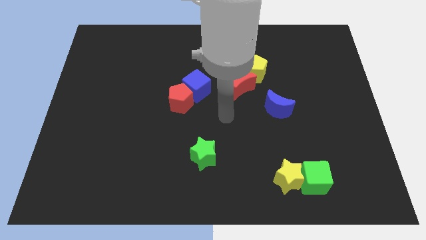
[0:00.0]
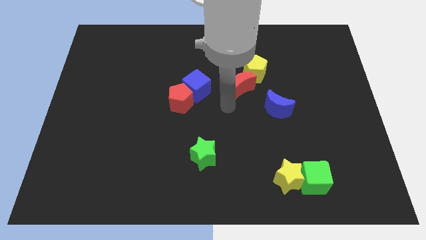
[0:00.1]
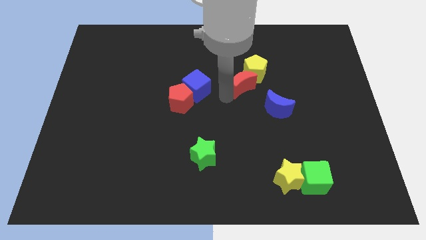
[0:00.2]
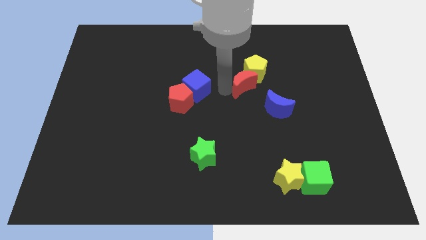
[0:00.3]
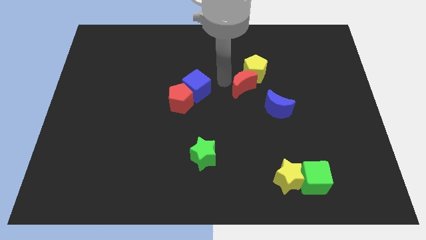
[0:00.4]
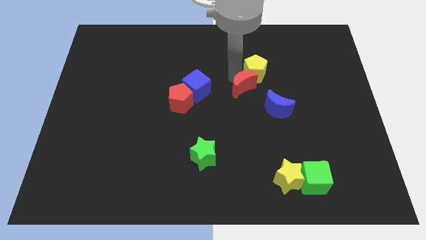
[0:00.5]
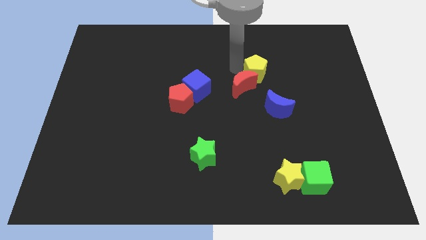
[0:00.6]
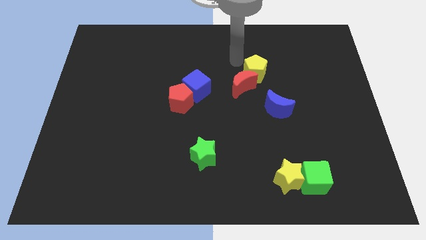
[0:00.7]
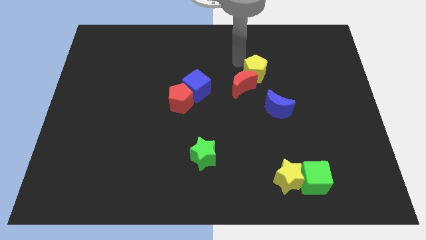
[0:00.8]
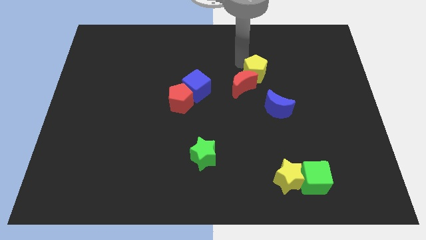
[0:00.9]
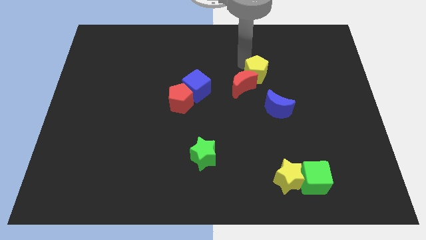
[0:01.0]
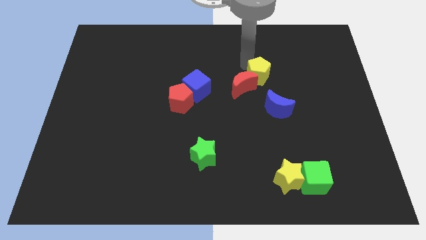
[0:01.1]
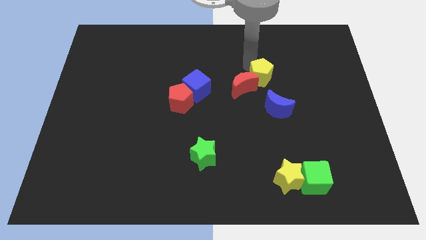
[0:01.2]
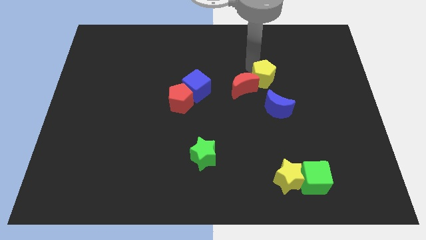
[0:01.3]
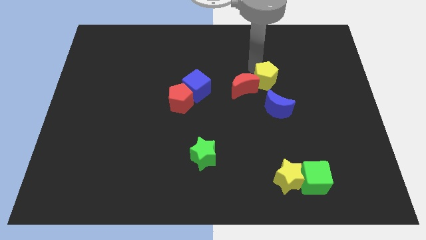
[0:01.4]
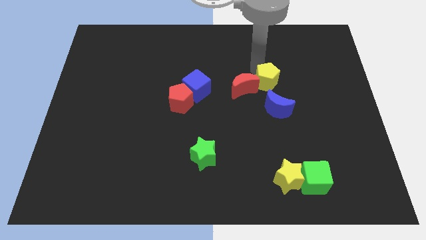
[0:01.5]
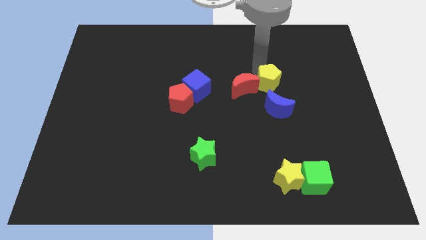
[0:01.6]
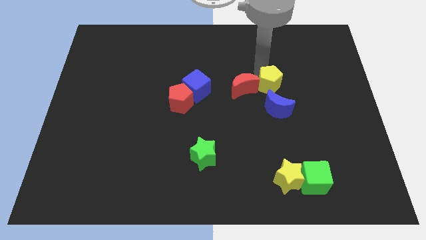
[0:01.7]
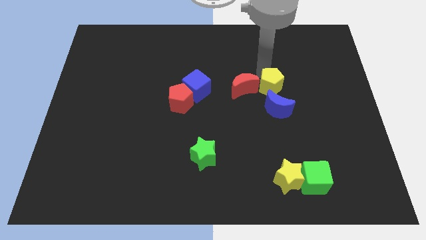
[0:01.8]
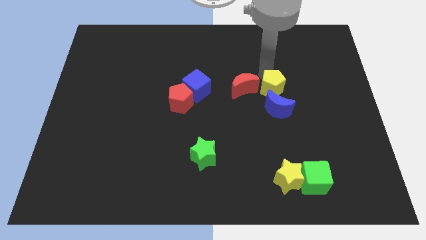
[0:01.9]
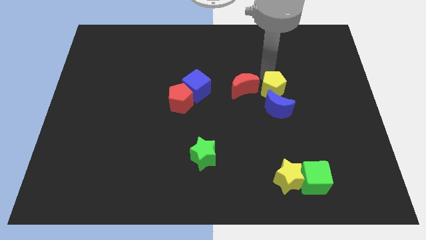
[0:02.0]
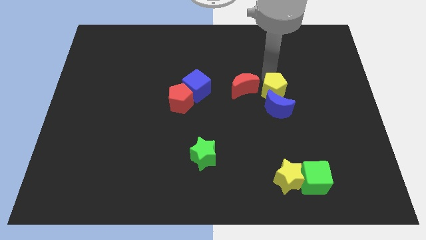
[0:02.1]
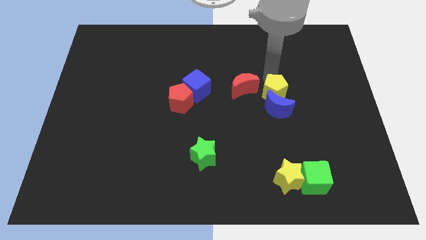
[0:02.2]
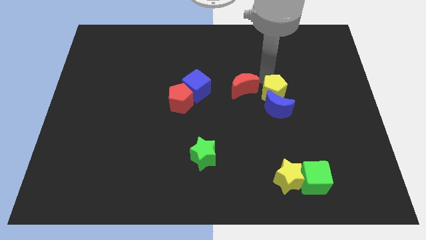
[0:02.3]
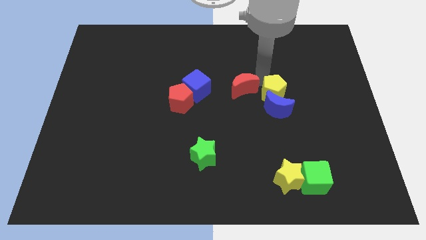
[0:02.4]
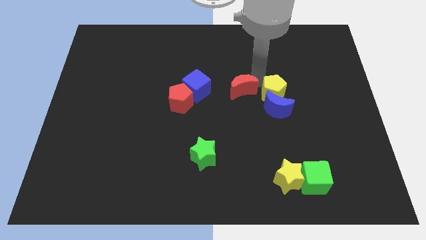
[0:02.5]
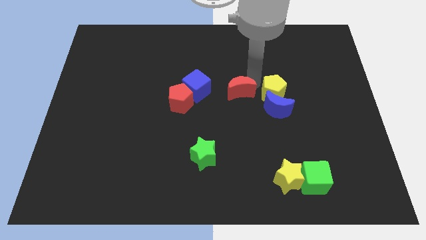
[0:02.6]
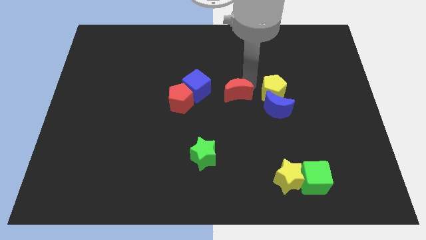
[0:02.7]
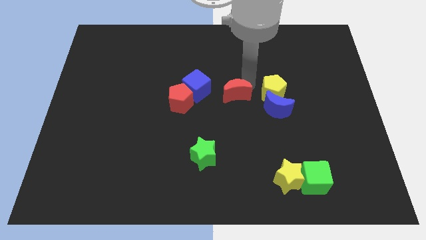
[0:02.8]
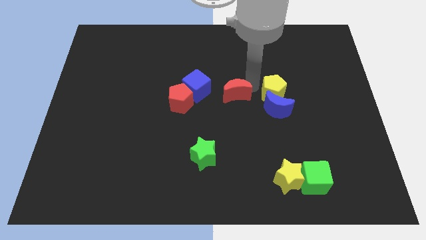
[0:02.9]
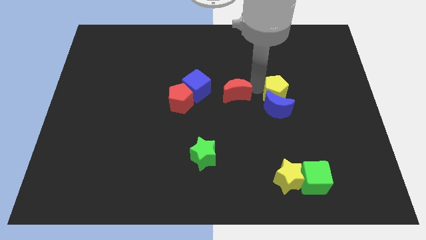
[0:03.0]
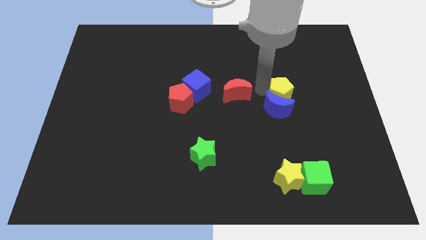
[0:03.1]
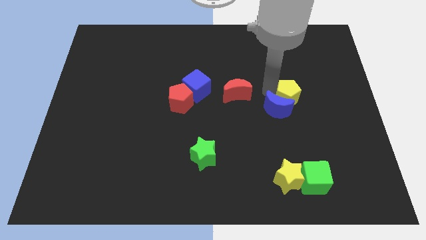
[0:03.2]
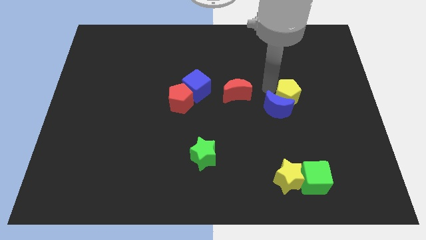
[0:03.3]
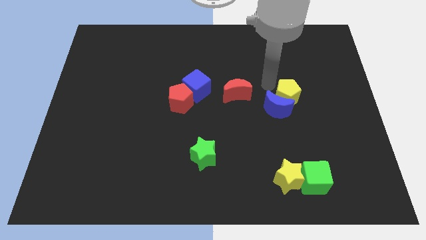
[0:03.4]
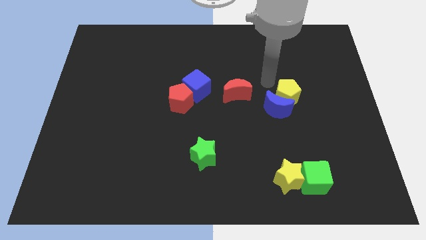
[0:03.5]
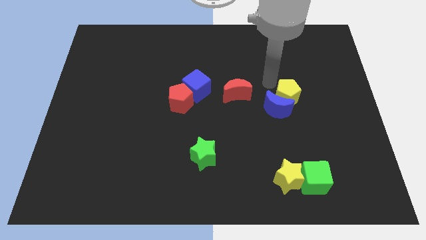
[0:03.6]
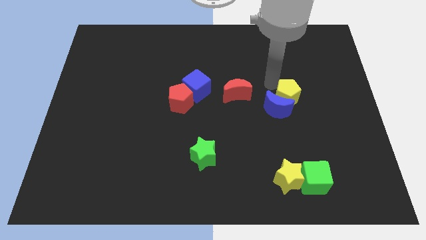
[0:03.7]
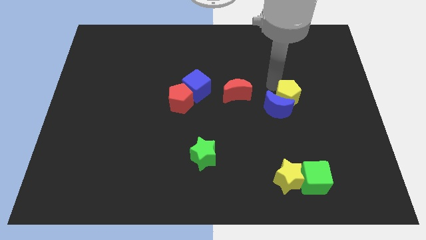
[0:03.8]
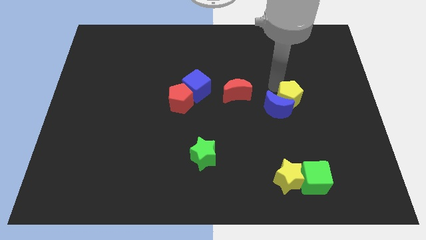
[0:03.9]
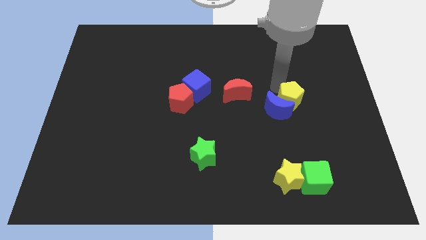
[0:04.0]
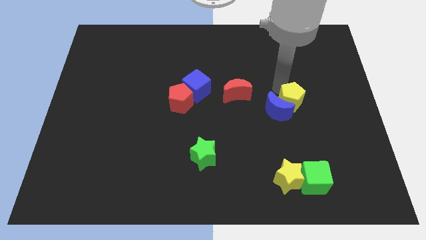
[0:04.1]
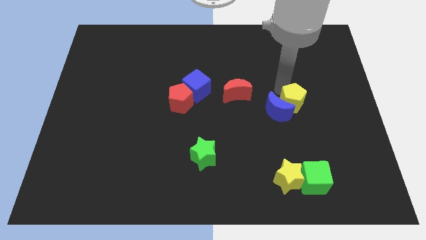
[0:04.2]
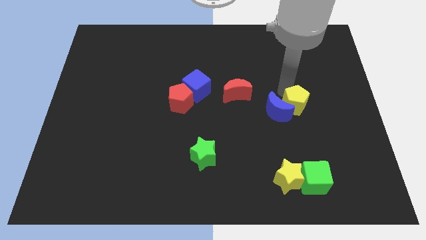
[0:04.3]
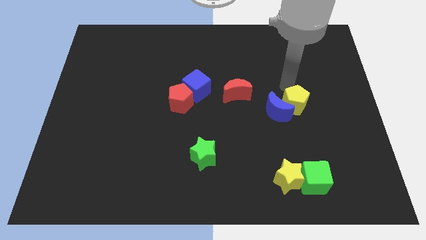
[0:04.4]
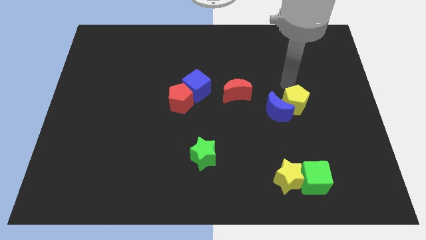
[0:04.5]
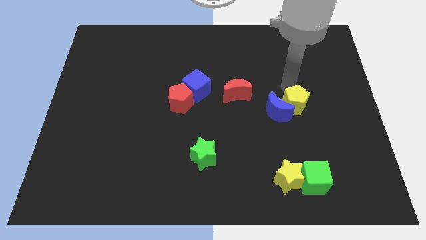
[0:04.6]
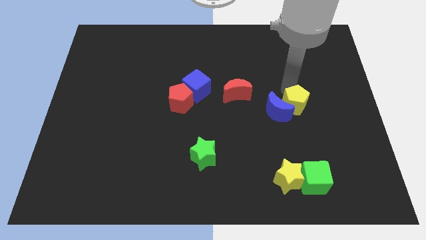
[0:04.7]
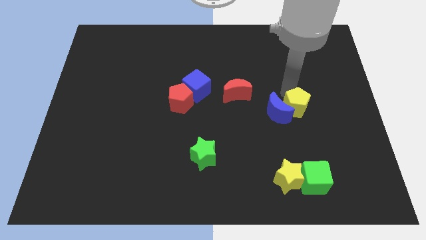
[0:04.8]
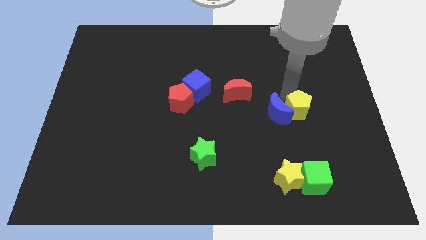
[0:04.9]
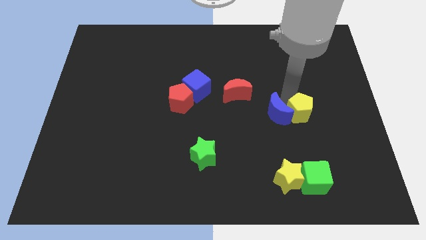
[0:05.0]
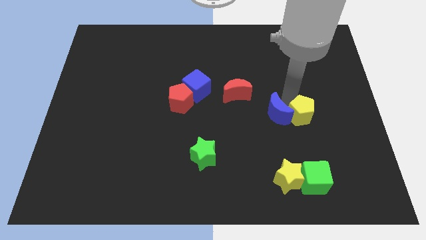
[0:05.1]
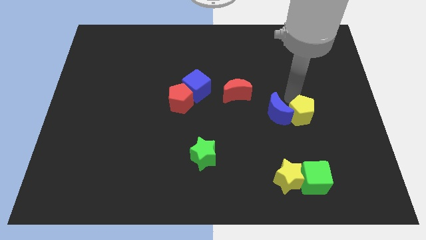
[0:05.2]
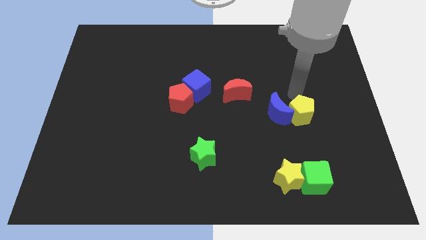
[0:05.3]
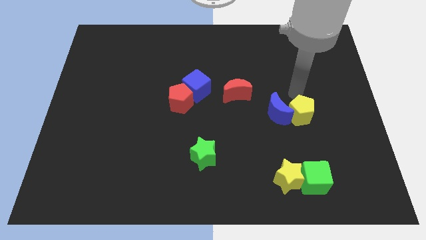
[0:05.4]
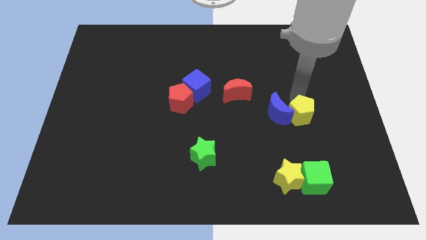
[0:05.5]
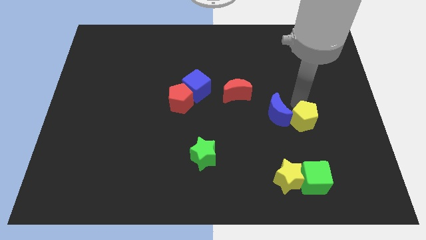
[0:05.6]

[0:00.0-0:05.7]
put the yellow pentagon to the top side of the green cube

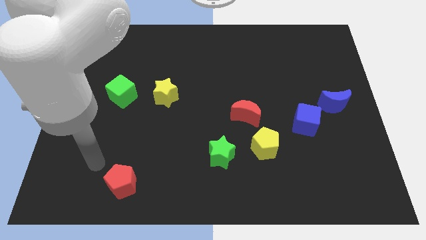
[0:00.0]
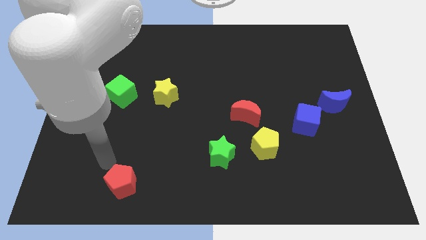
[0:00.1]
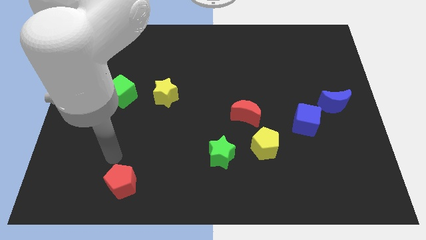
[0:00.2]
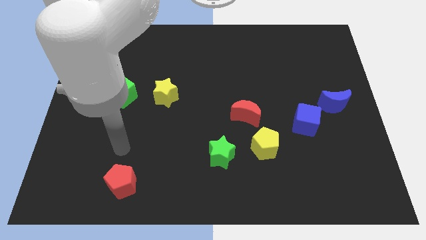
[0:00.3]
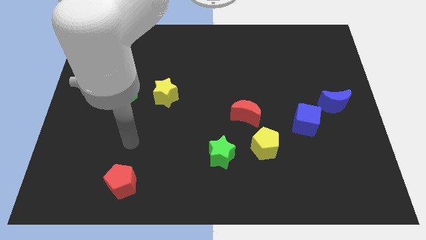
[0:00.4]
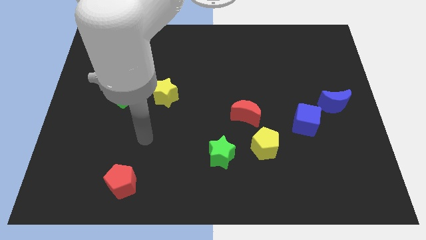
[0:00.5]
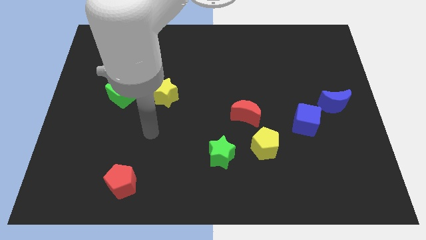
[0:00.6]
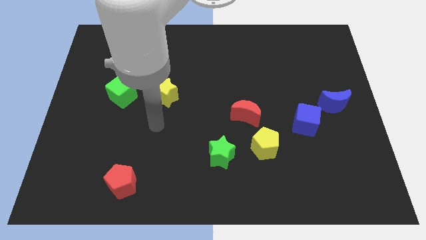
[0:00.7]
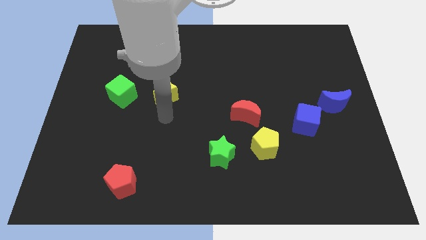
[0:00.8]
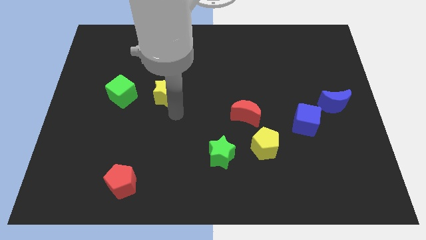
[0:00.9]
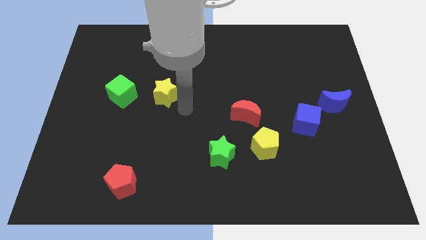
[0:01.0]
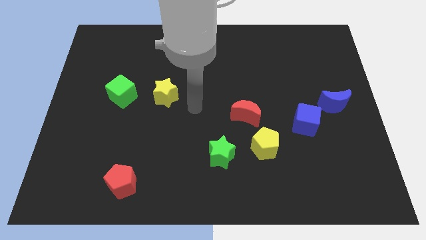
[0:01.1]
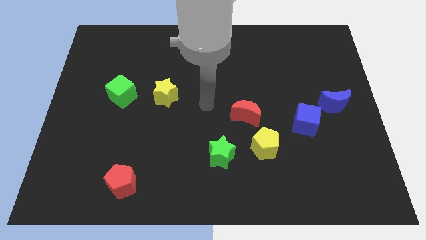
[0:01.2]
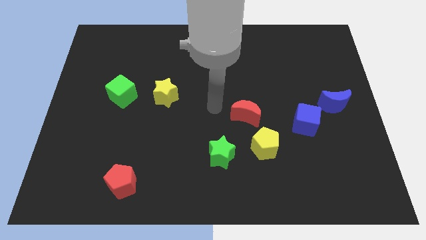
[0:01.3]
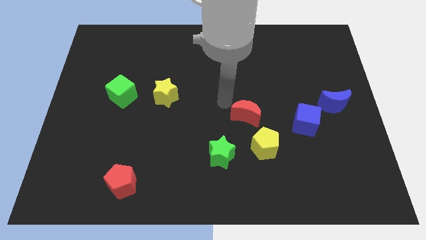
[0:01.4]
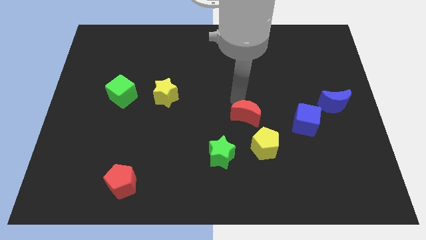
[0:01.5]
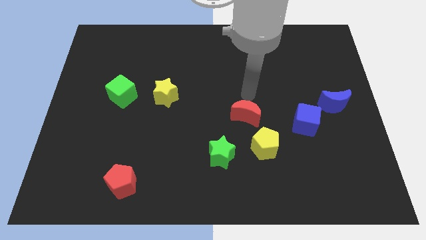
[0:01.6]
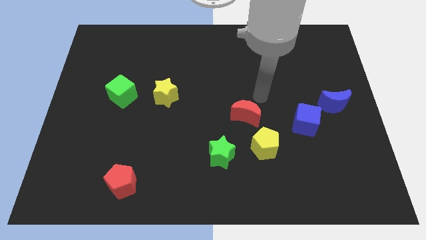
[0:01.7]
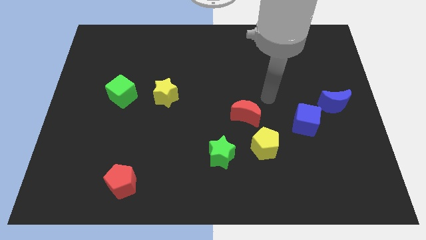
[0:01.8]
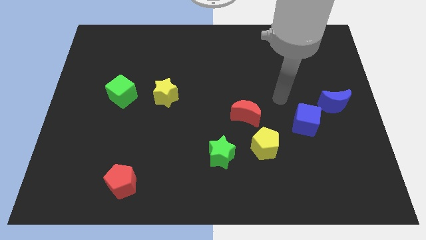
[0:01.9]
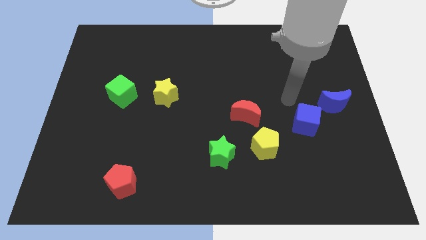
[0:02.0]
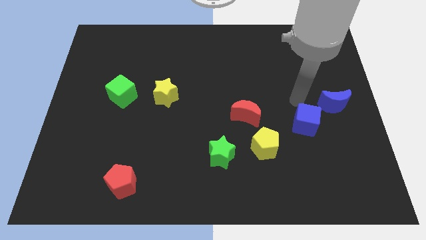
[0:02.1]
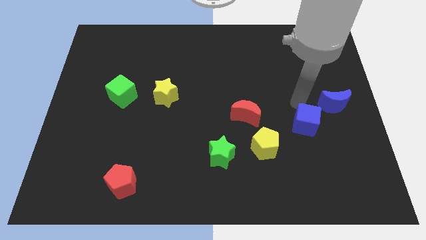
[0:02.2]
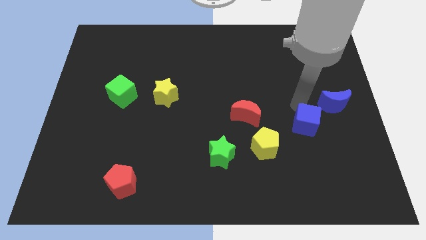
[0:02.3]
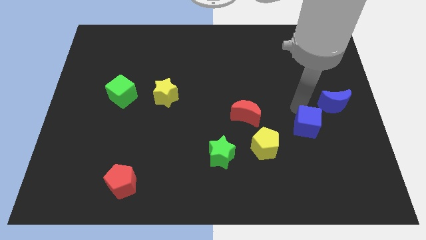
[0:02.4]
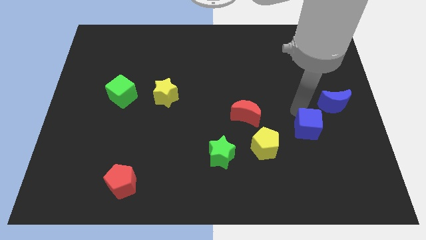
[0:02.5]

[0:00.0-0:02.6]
push the blue cube to the right of the yellow pentagon
